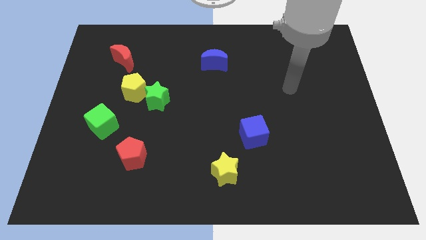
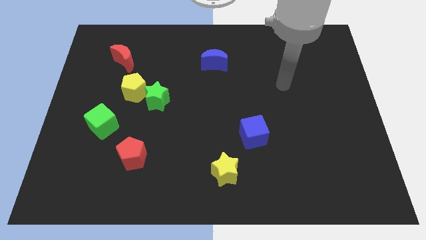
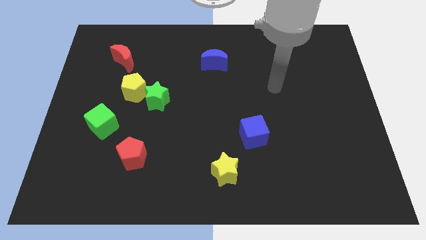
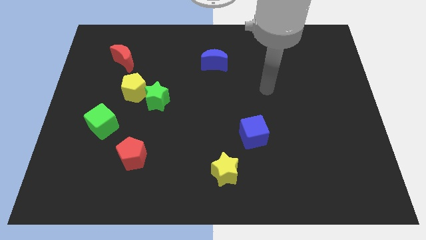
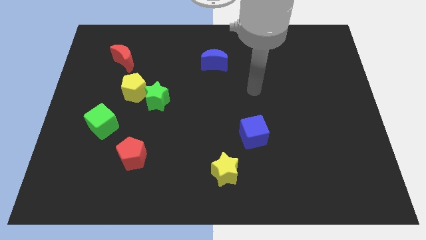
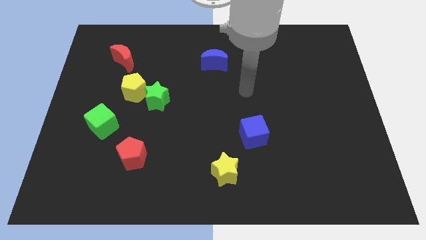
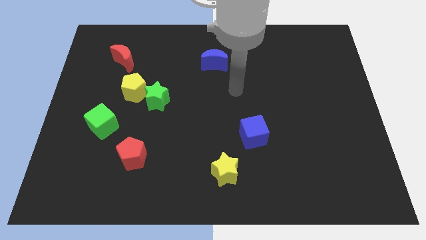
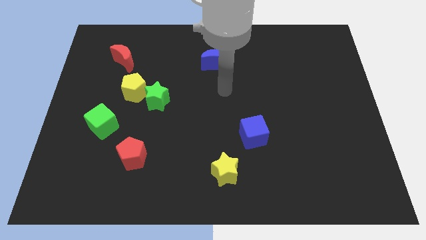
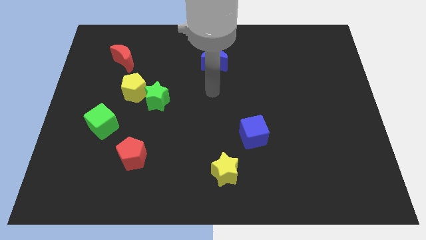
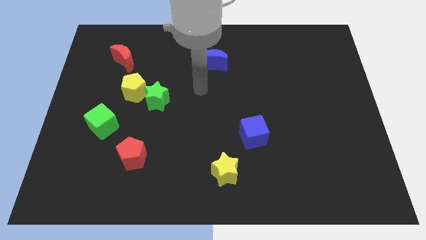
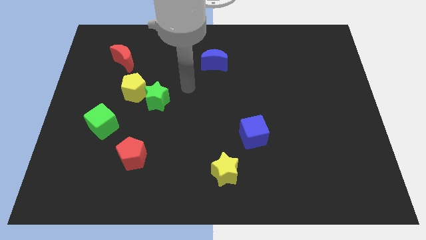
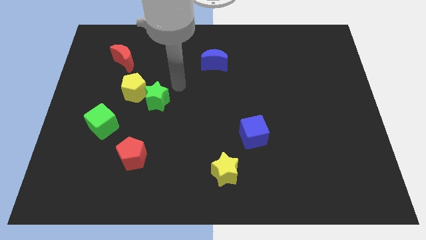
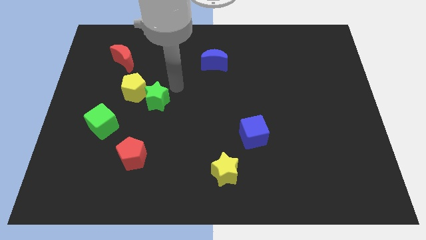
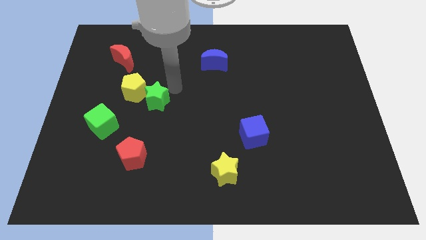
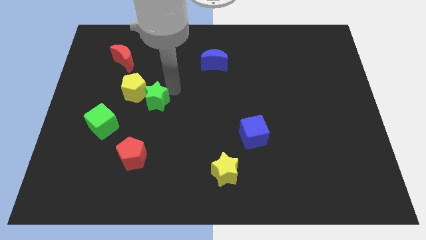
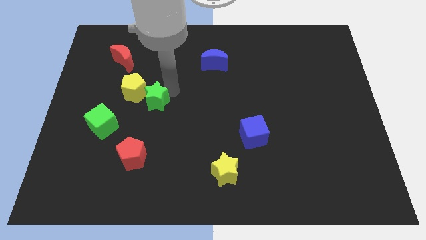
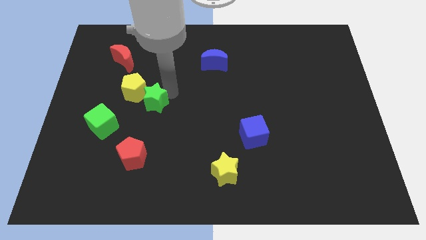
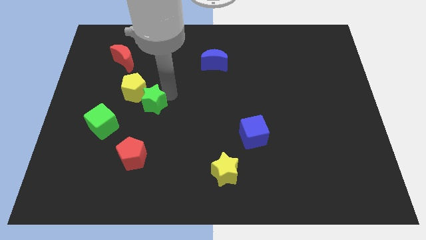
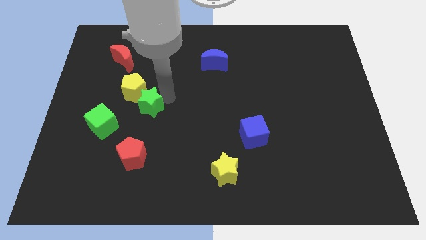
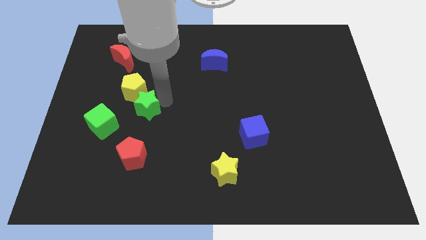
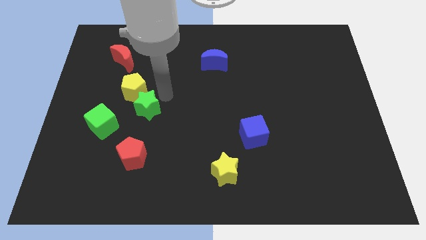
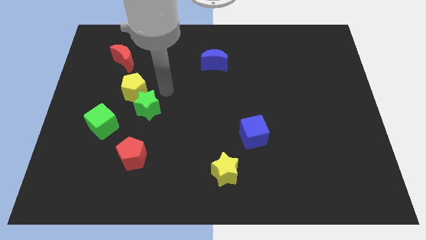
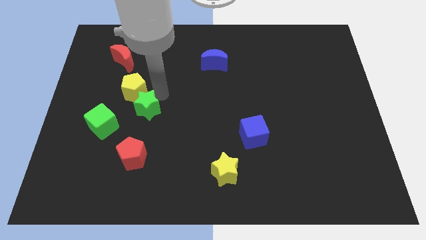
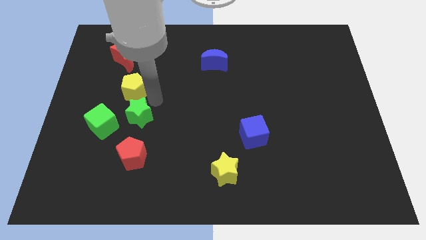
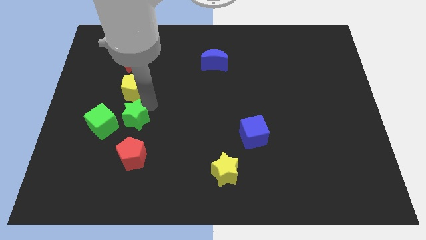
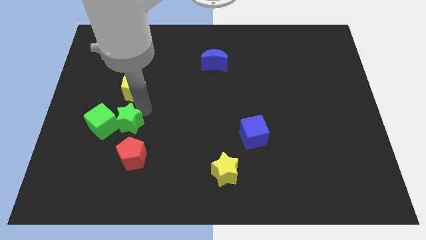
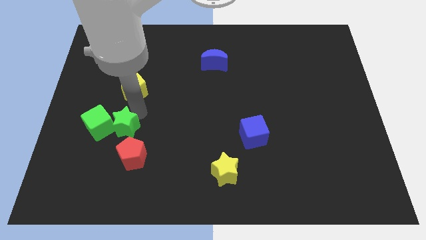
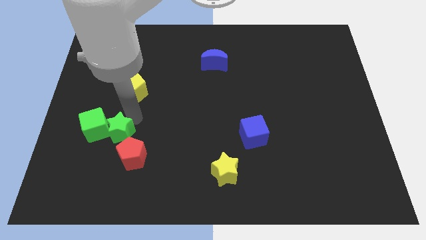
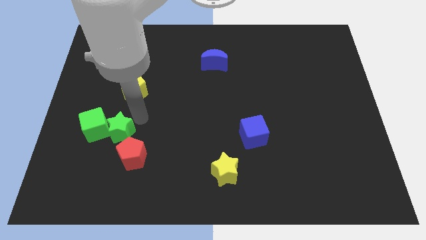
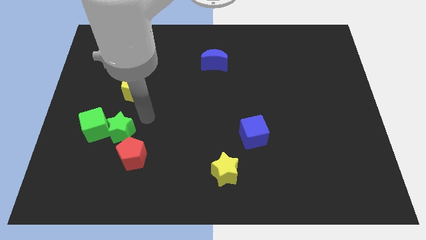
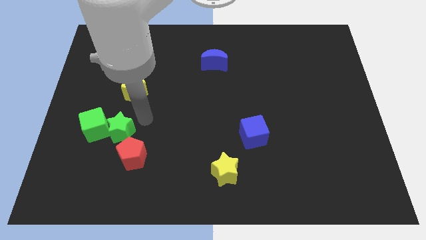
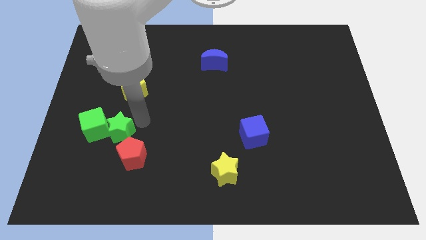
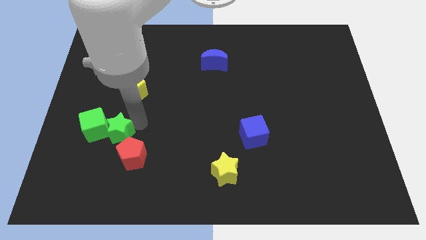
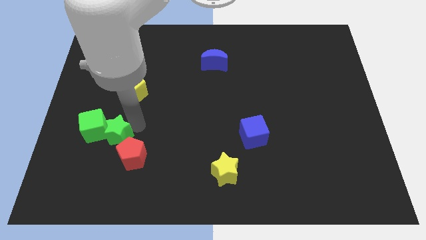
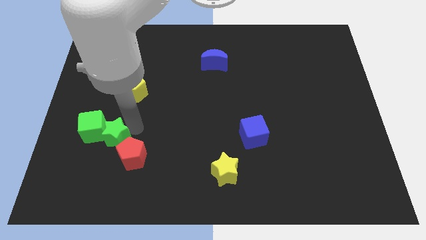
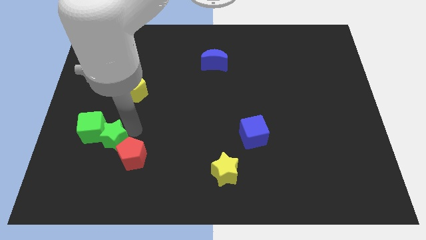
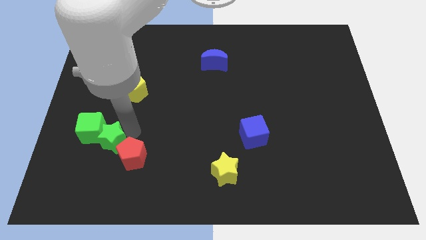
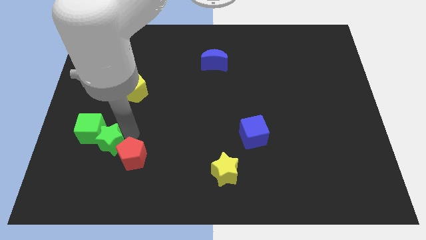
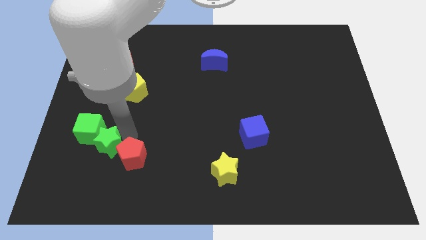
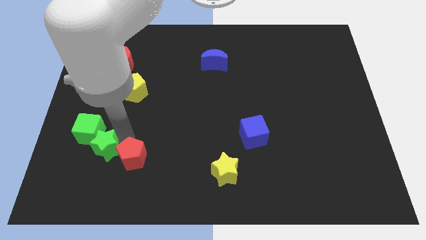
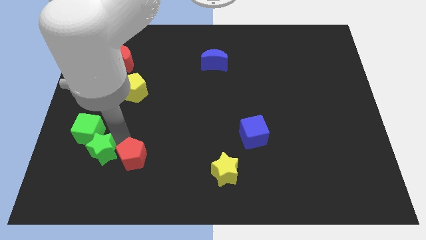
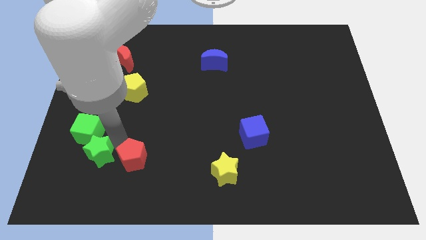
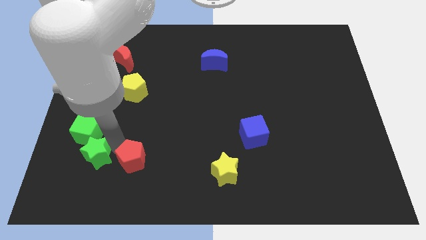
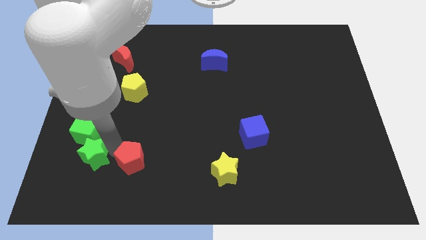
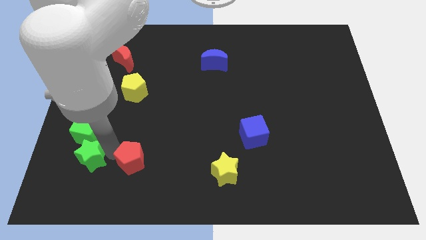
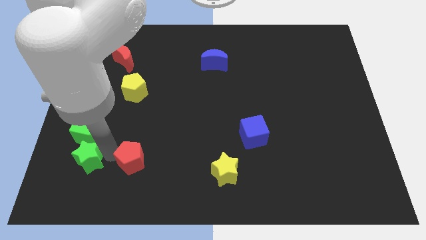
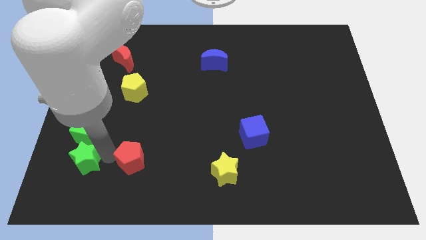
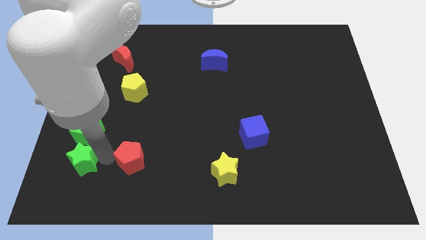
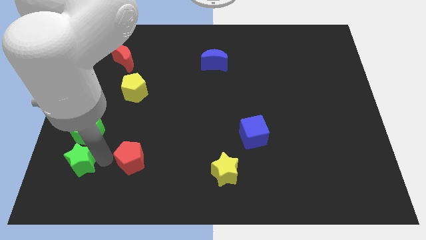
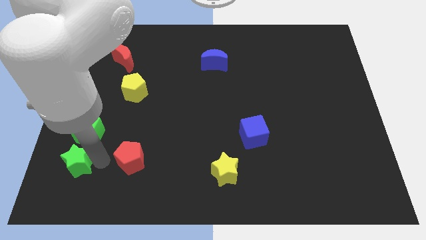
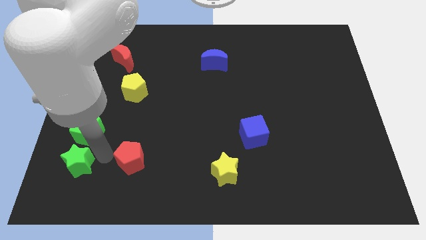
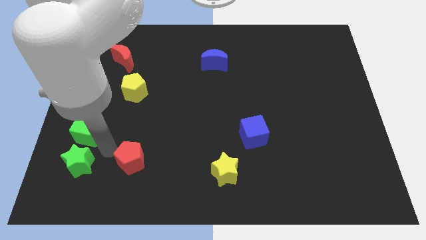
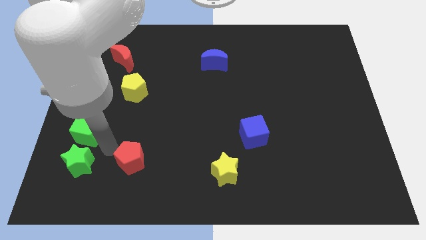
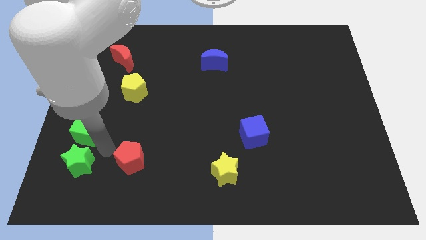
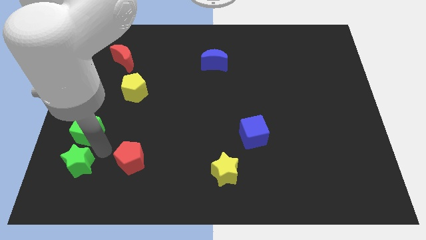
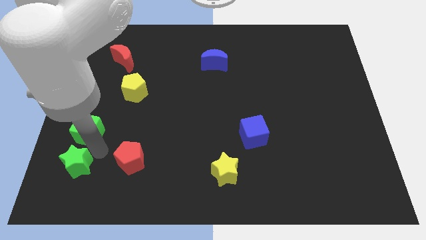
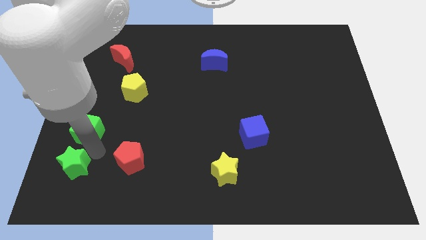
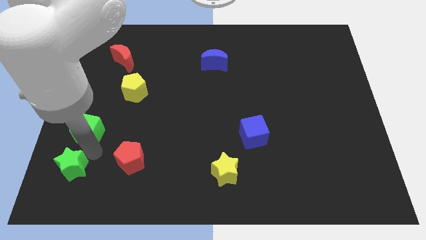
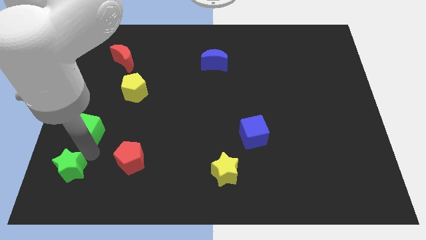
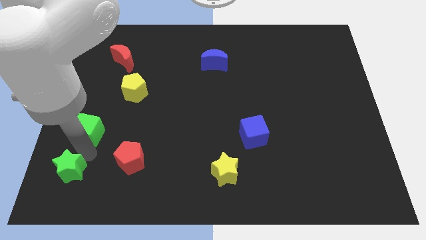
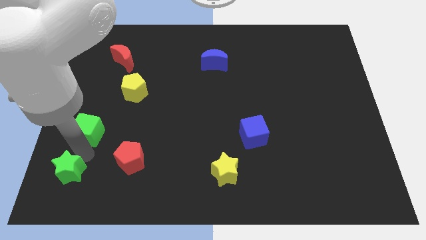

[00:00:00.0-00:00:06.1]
move the green star to the lower left corner
